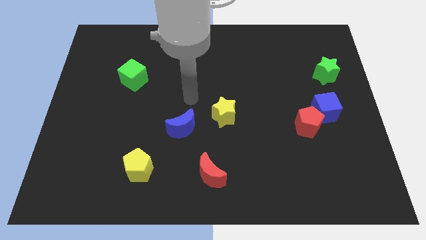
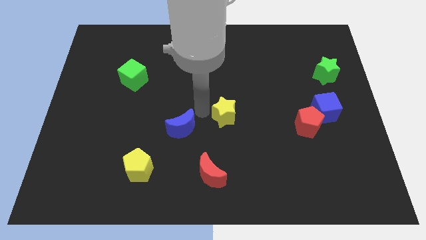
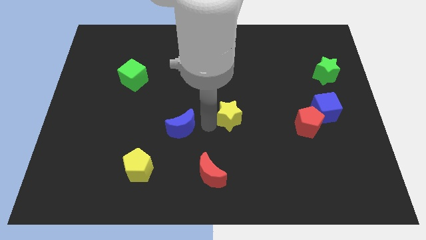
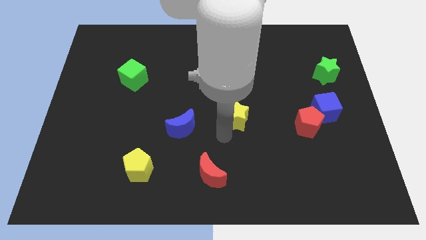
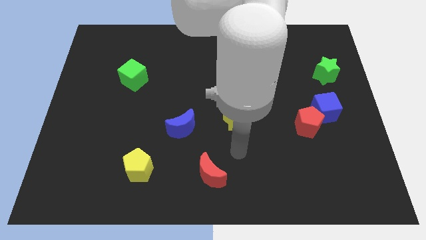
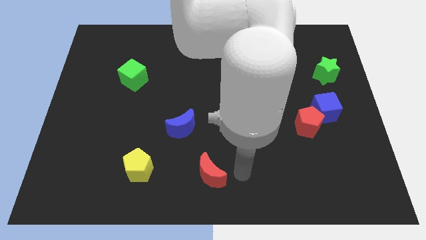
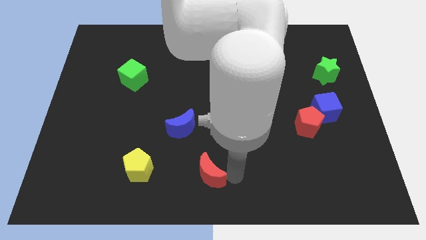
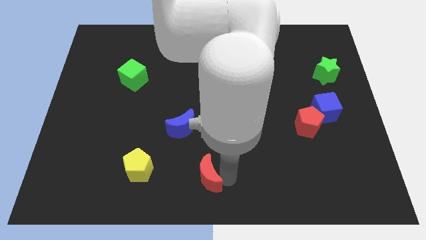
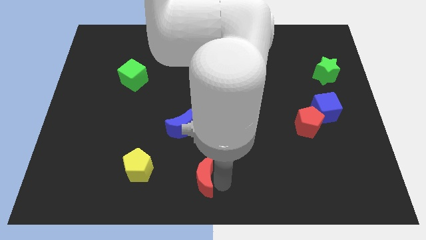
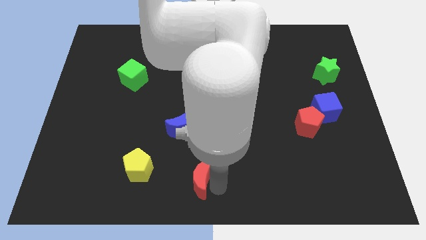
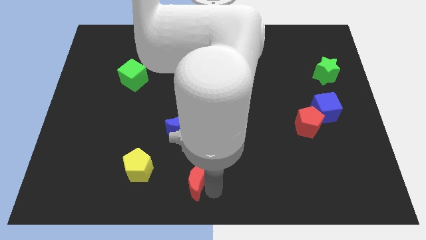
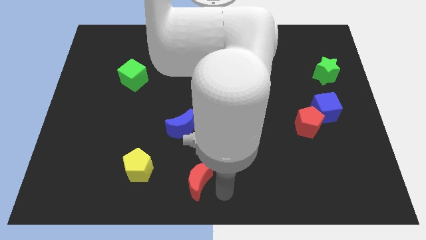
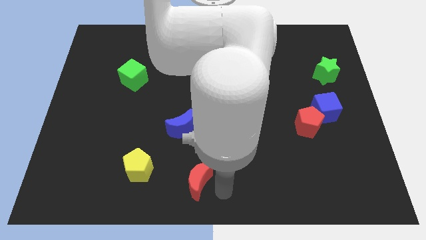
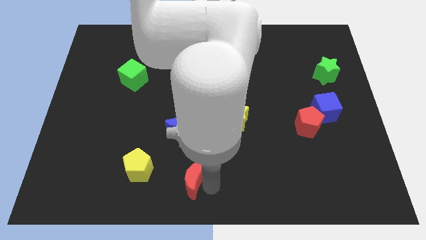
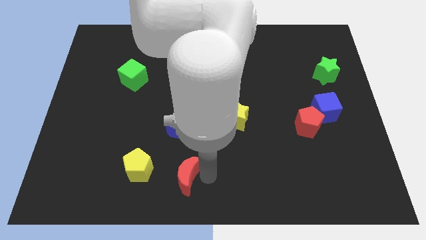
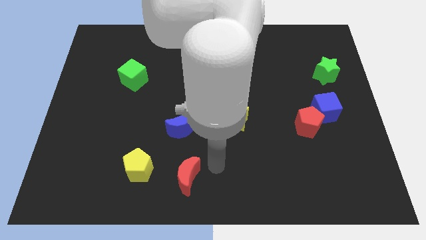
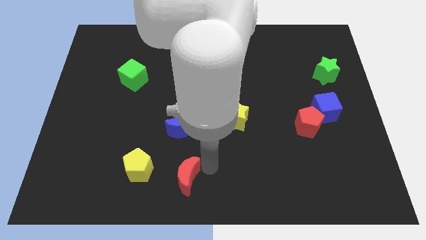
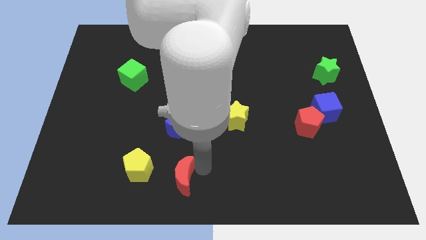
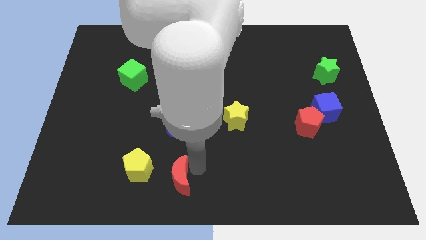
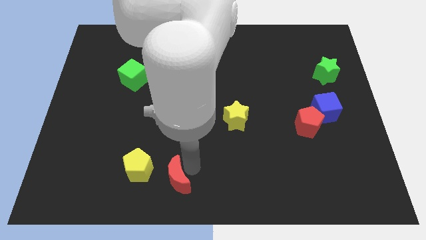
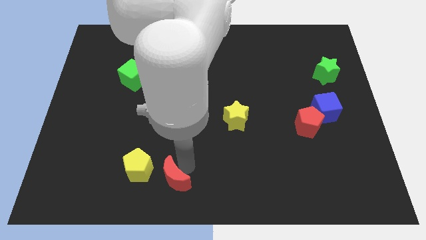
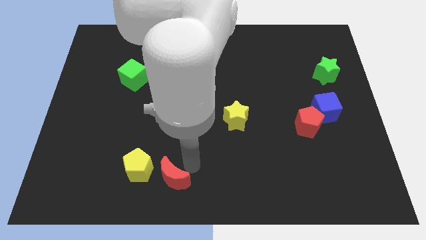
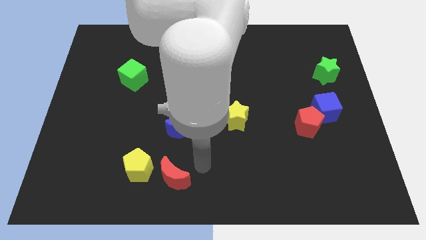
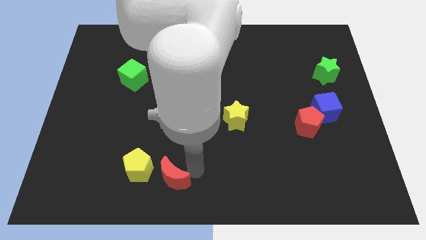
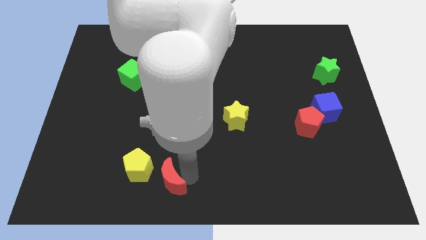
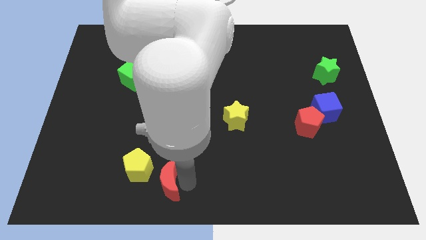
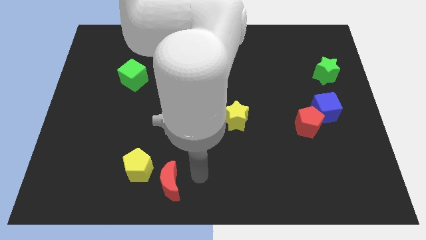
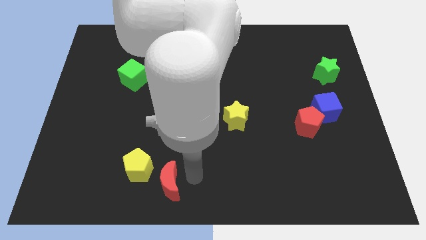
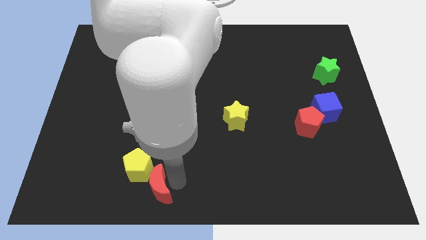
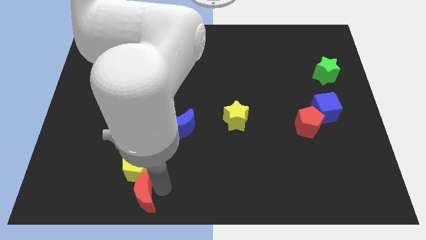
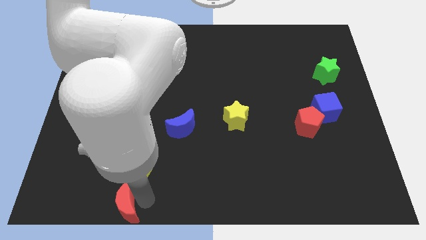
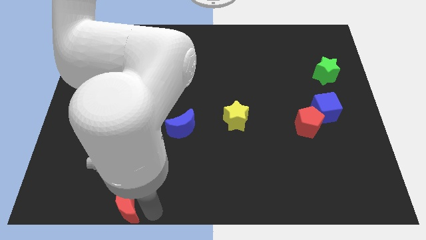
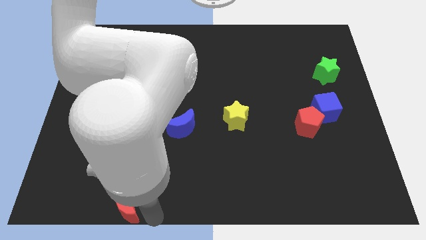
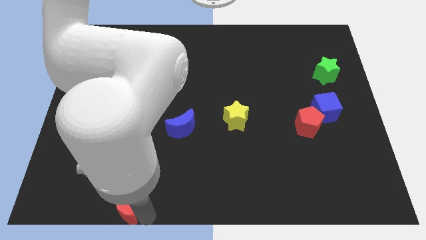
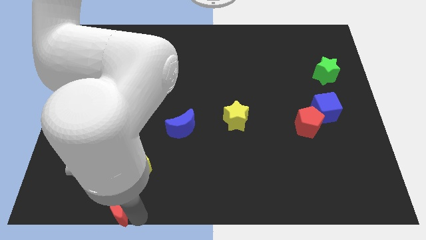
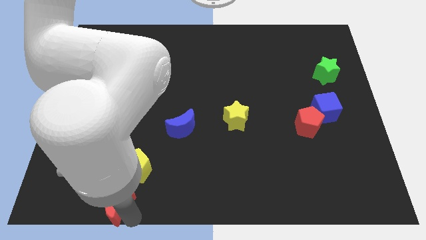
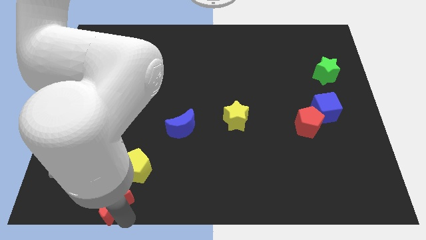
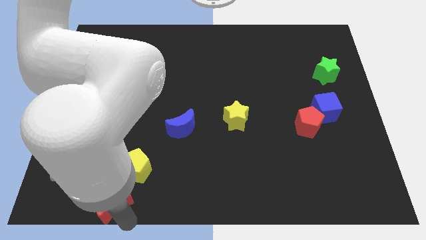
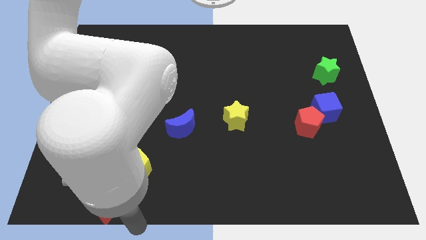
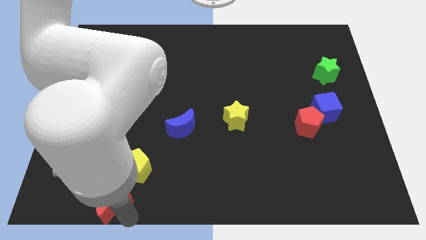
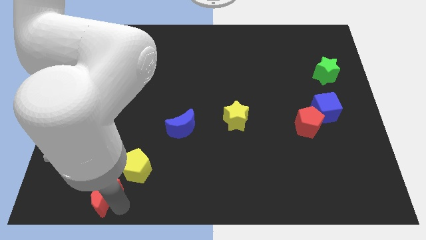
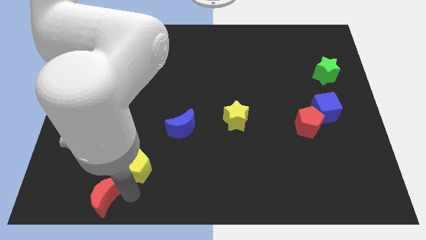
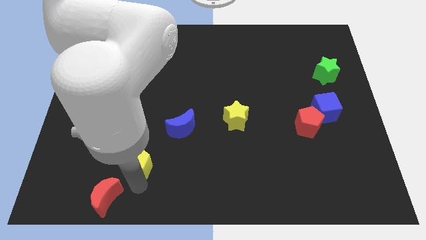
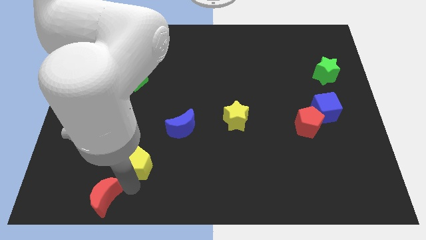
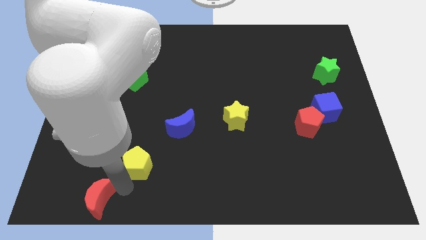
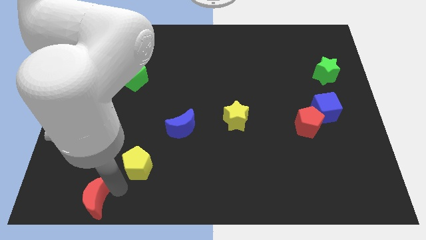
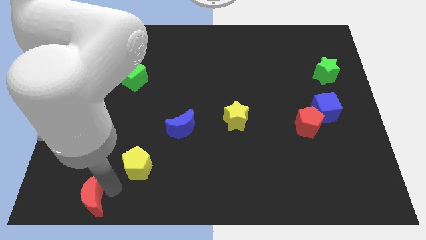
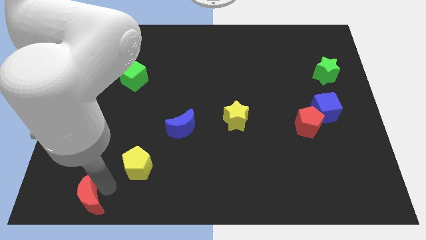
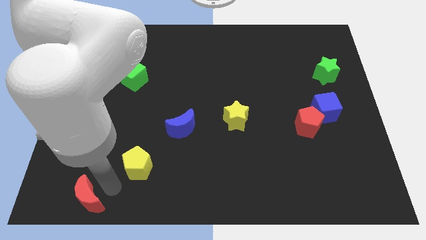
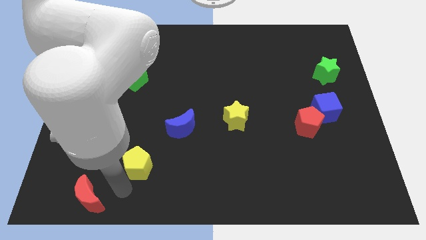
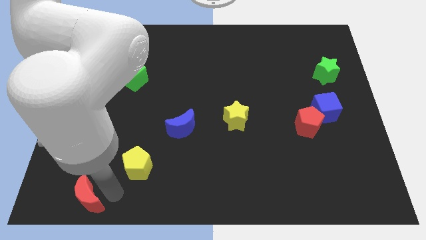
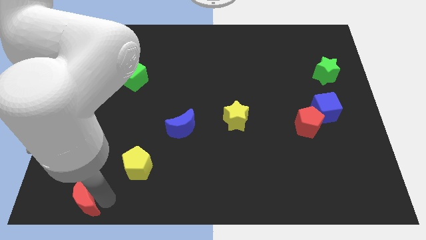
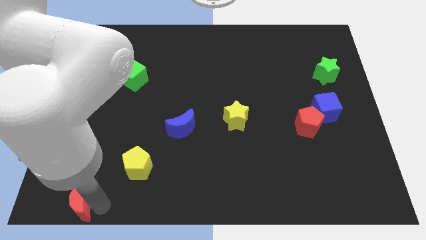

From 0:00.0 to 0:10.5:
put the red moon to the bottom left

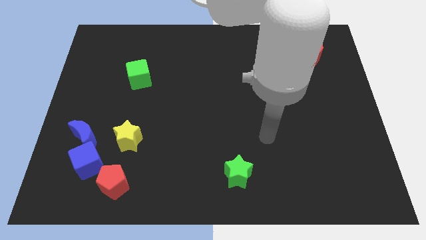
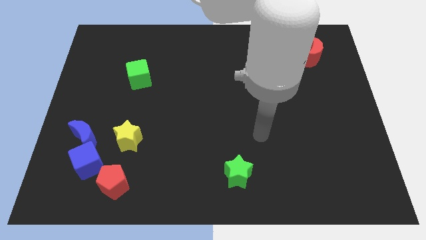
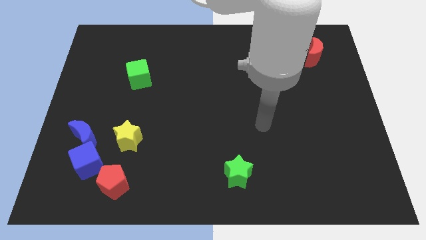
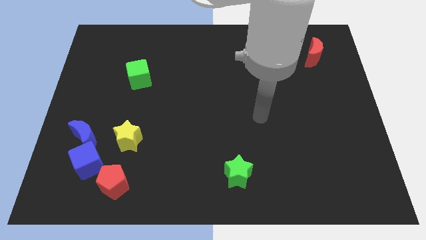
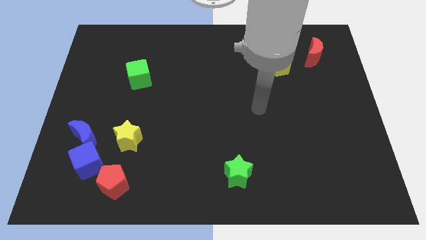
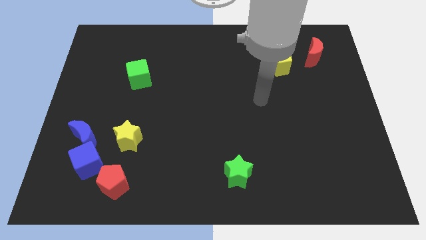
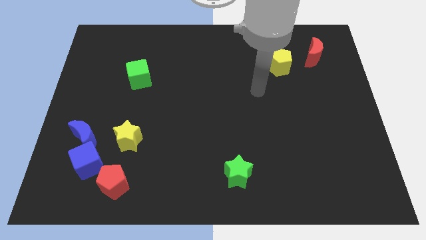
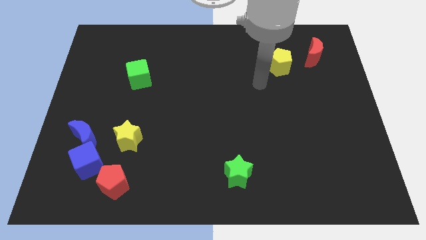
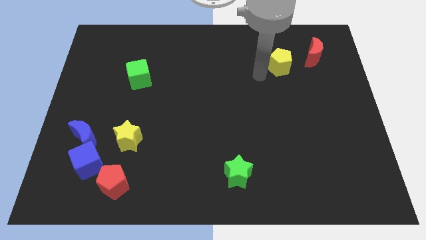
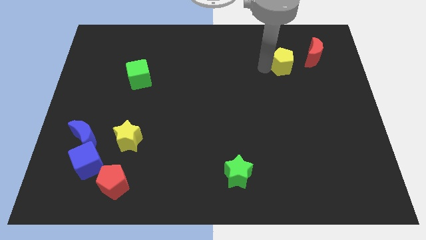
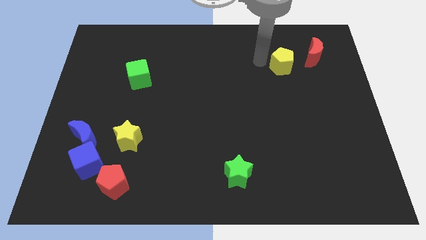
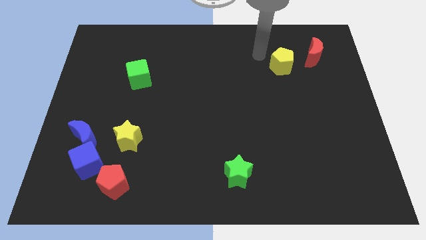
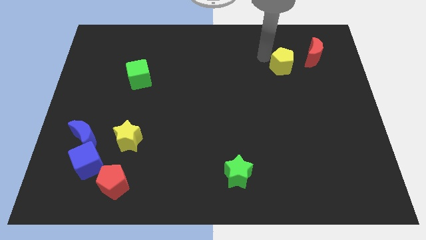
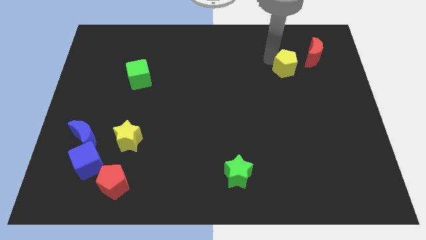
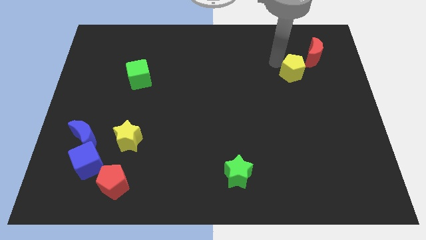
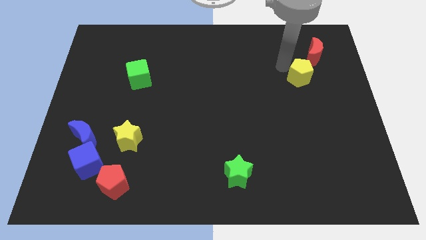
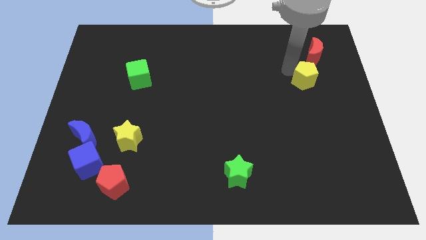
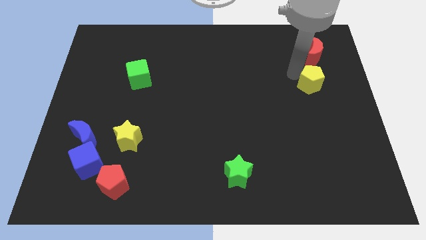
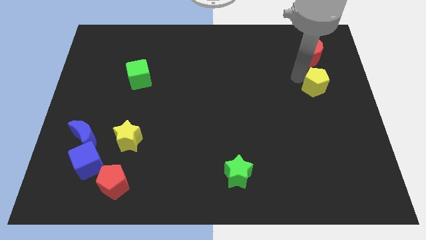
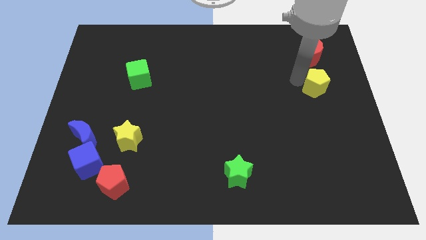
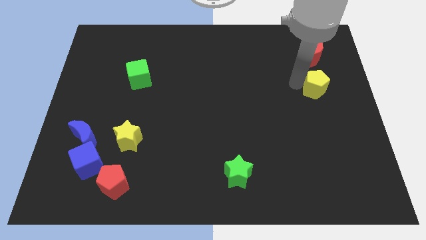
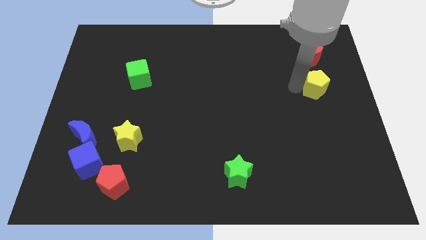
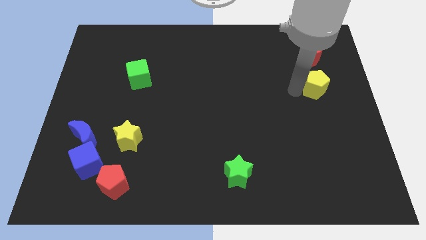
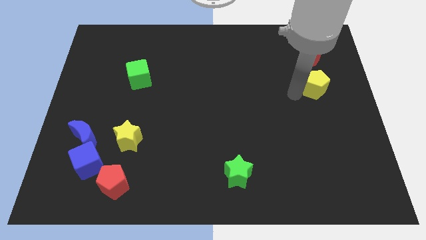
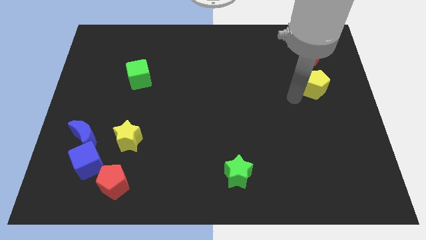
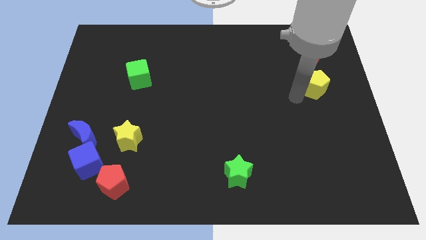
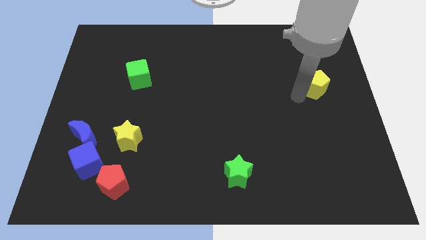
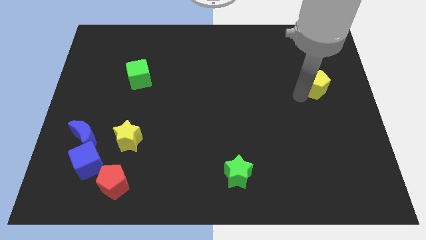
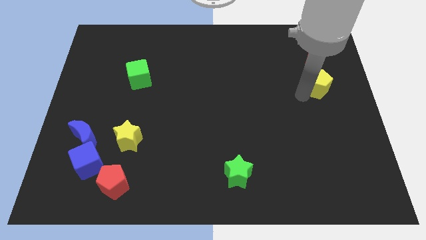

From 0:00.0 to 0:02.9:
slide the yellow pentagon to the right side
